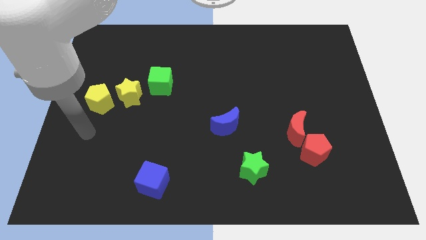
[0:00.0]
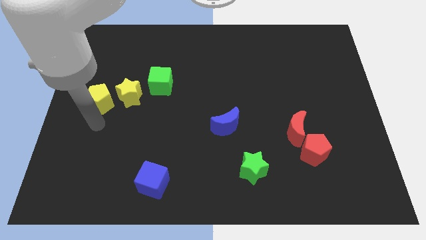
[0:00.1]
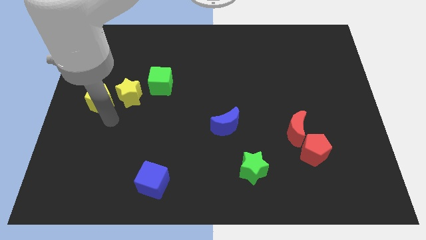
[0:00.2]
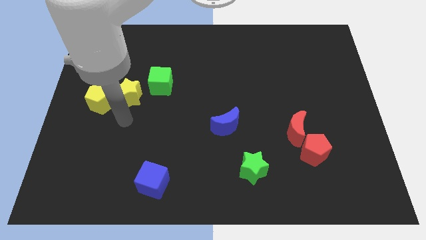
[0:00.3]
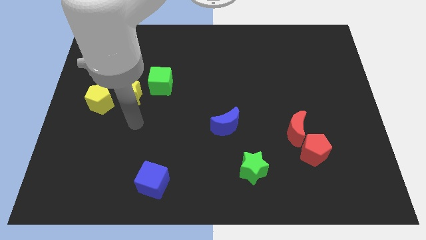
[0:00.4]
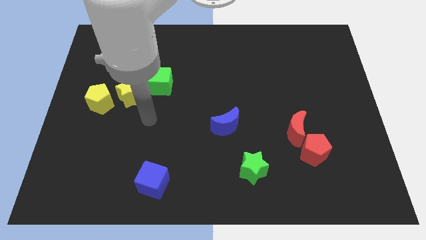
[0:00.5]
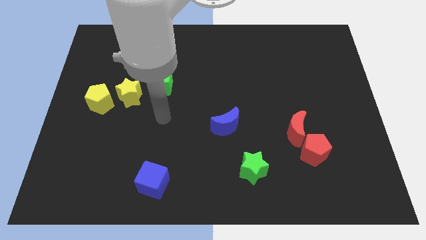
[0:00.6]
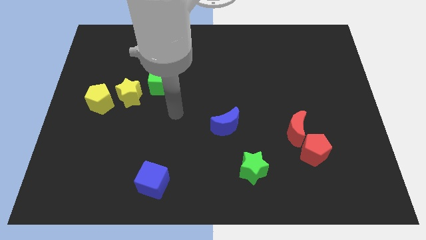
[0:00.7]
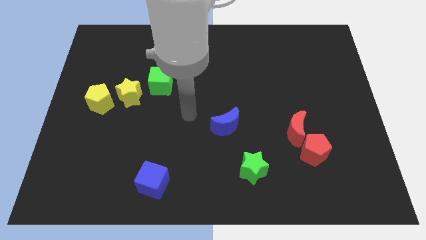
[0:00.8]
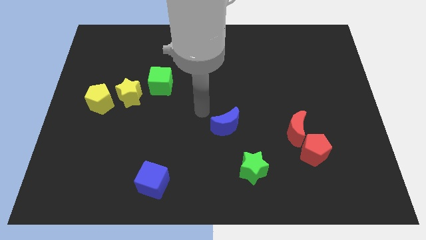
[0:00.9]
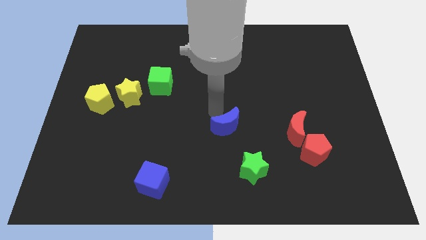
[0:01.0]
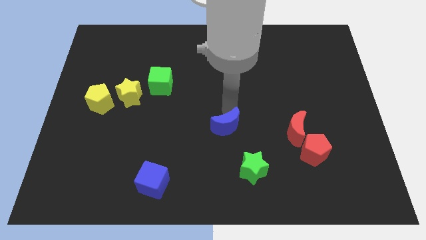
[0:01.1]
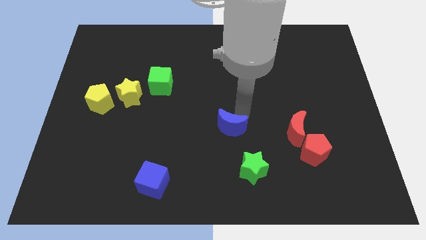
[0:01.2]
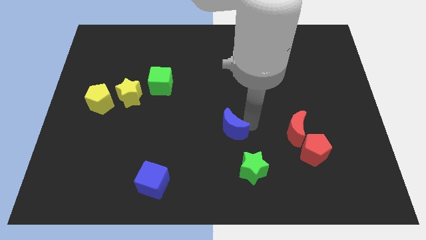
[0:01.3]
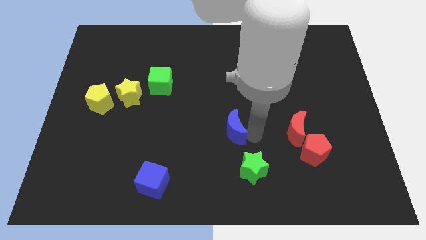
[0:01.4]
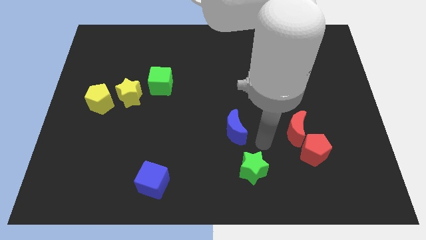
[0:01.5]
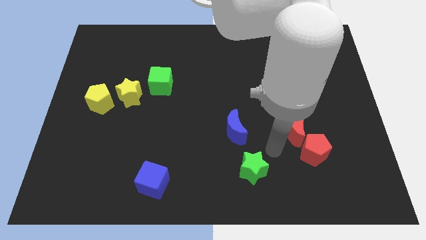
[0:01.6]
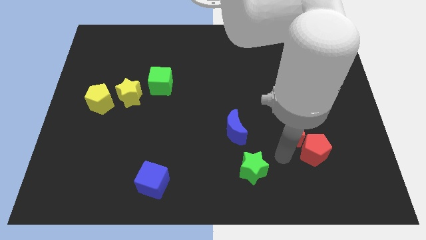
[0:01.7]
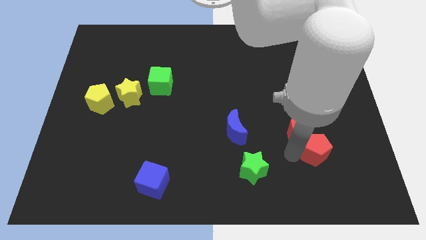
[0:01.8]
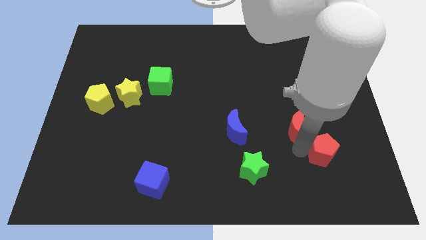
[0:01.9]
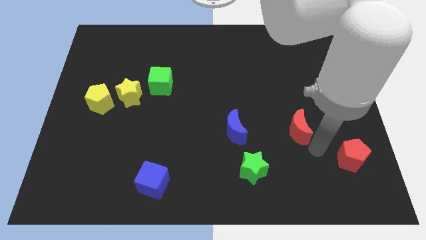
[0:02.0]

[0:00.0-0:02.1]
move the red moon away from the red pentagon

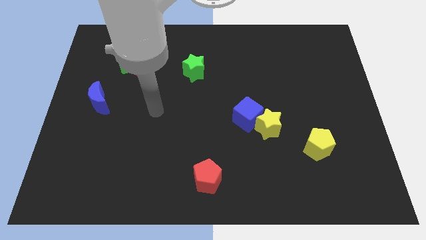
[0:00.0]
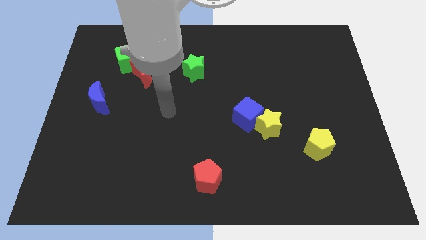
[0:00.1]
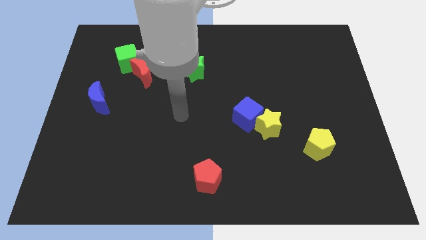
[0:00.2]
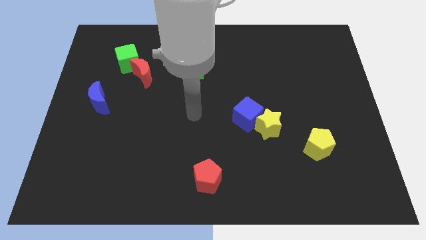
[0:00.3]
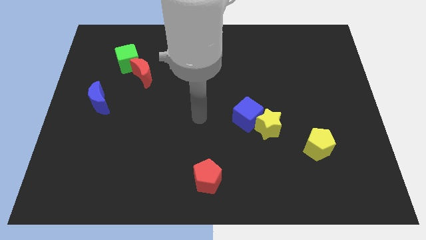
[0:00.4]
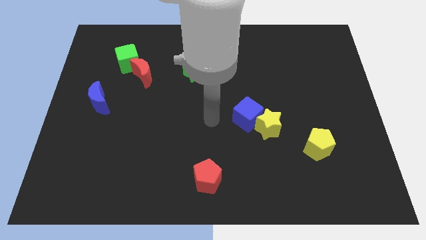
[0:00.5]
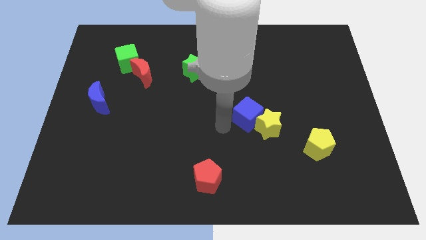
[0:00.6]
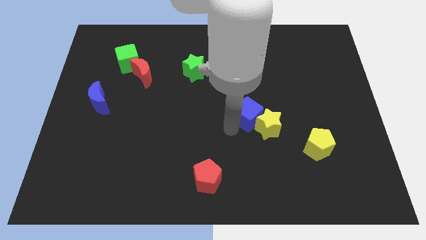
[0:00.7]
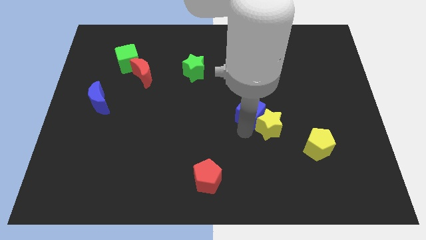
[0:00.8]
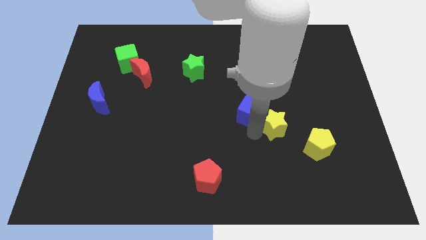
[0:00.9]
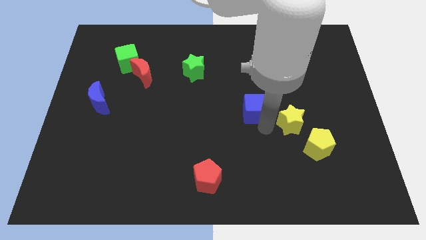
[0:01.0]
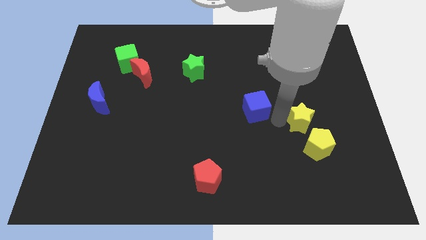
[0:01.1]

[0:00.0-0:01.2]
separate the blue cube from the yellow star

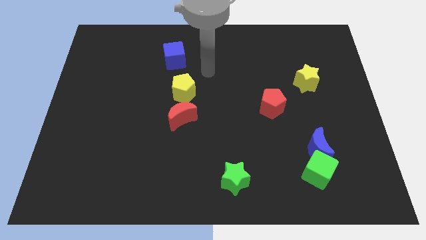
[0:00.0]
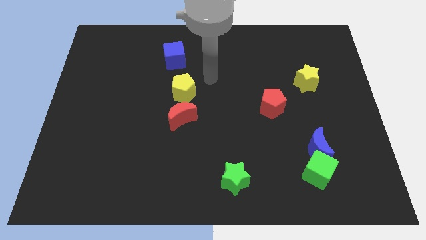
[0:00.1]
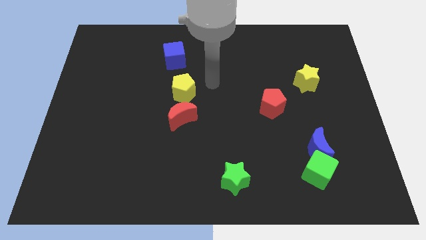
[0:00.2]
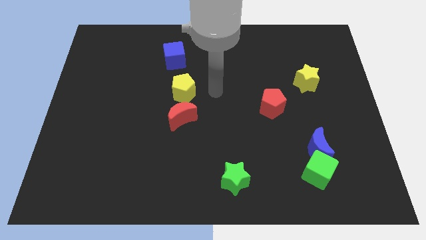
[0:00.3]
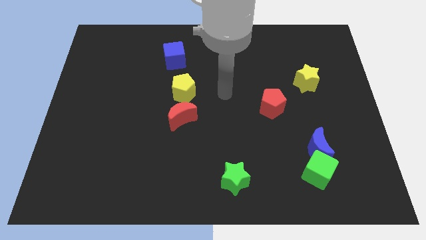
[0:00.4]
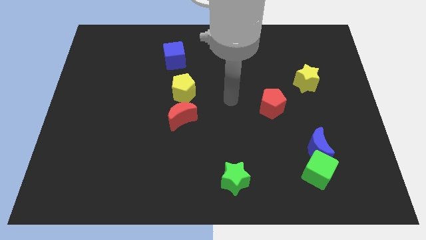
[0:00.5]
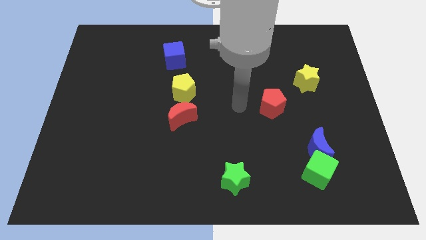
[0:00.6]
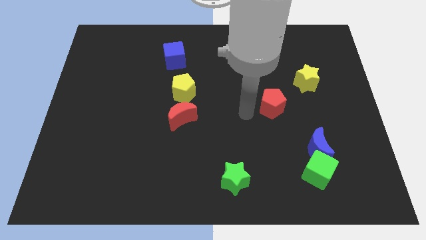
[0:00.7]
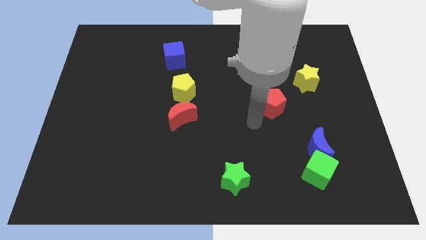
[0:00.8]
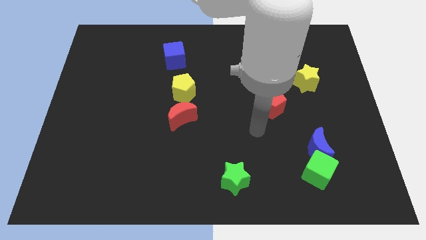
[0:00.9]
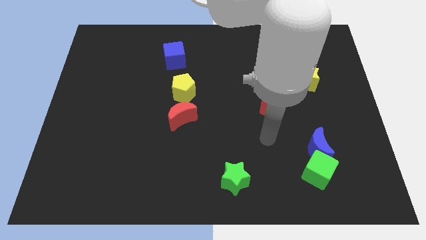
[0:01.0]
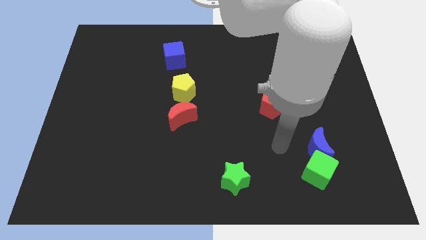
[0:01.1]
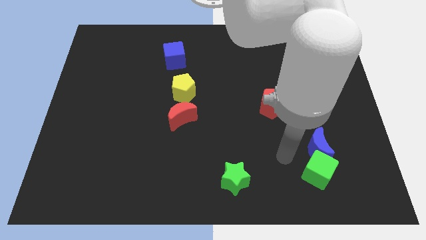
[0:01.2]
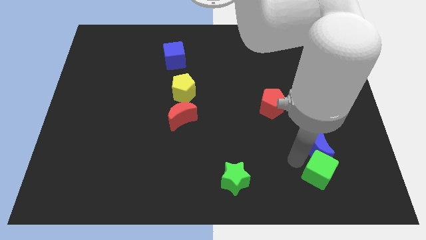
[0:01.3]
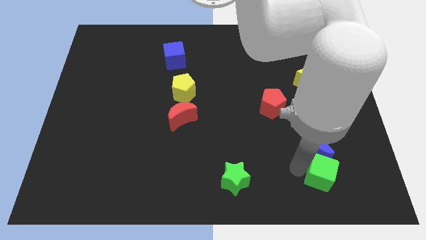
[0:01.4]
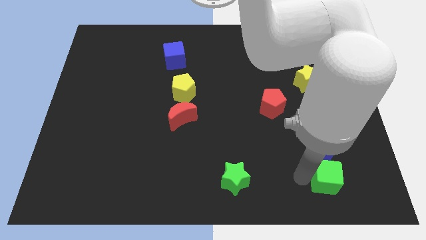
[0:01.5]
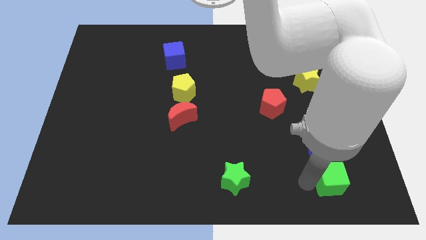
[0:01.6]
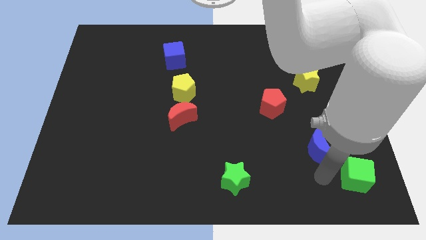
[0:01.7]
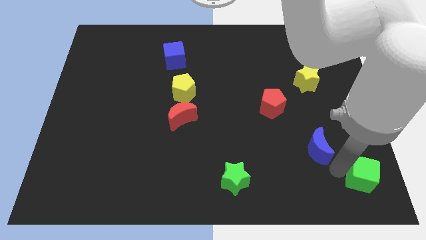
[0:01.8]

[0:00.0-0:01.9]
pull the blue moon apart from the green cube

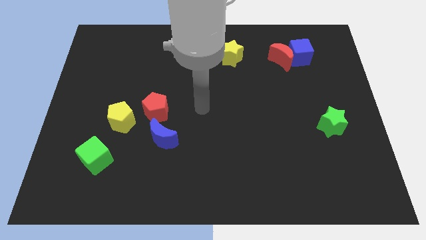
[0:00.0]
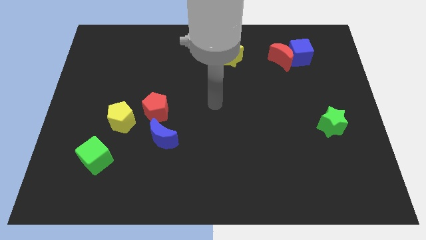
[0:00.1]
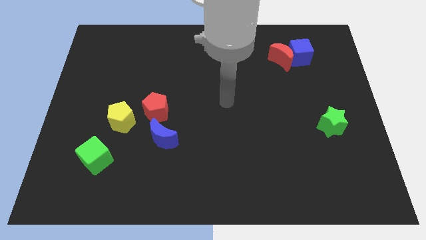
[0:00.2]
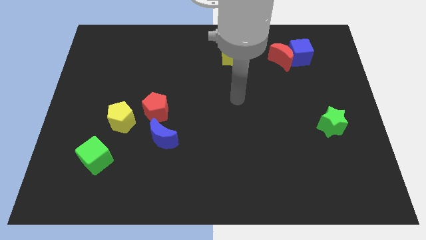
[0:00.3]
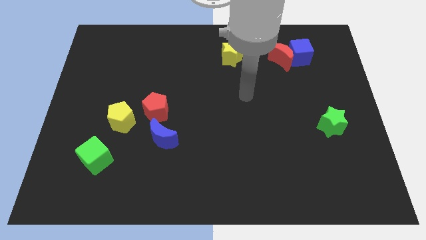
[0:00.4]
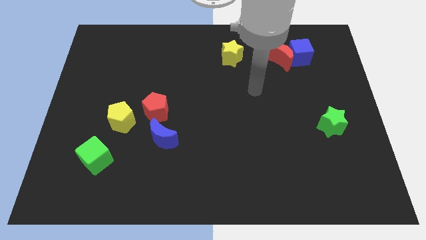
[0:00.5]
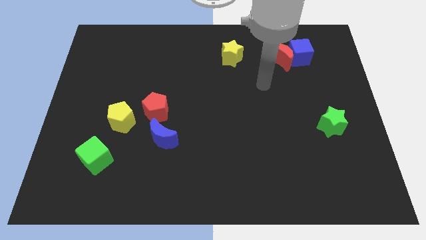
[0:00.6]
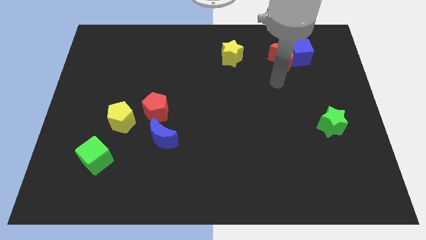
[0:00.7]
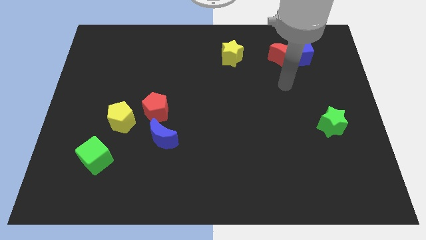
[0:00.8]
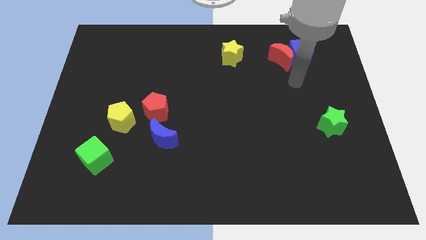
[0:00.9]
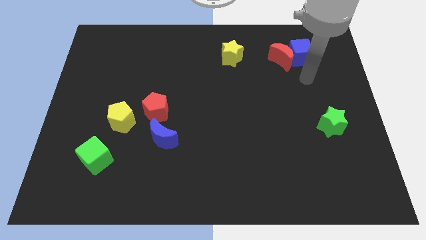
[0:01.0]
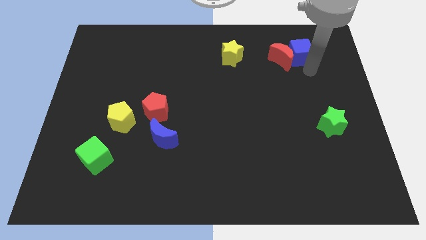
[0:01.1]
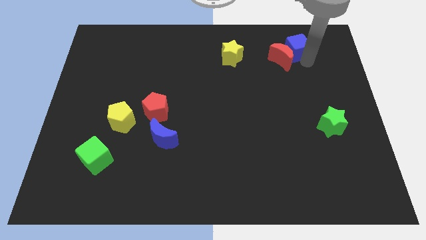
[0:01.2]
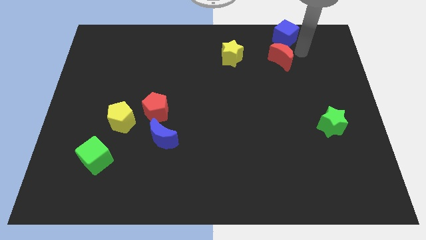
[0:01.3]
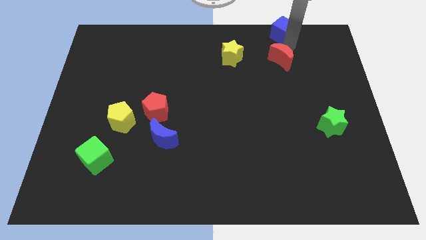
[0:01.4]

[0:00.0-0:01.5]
separate the red moon from the blue cube

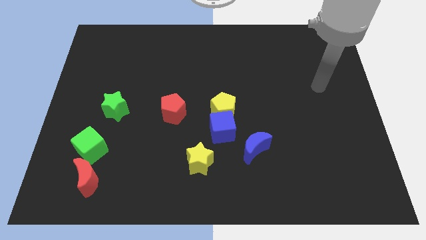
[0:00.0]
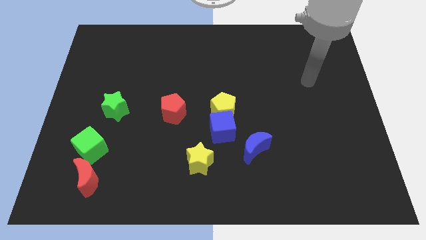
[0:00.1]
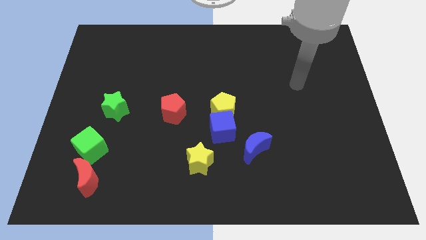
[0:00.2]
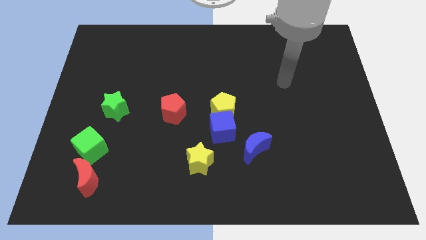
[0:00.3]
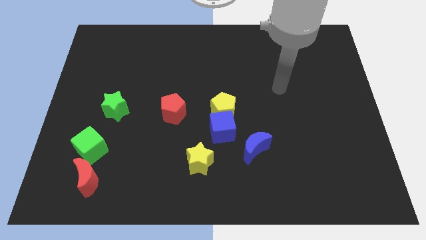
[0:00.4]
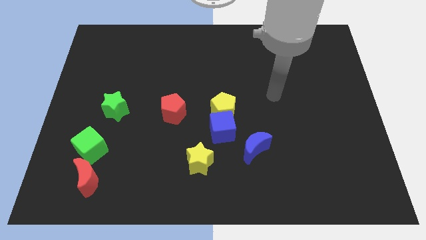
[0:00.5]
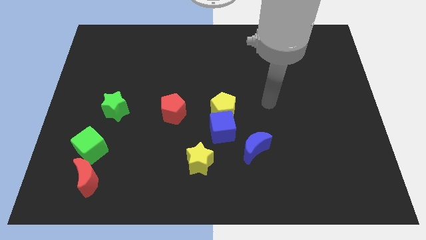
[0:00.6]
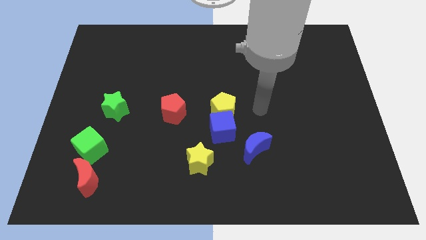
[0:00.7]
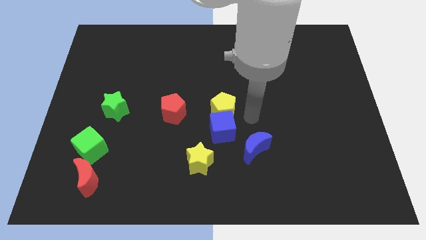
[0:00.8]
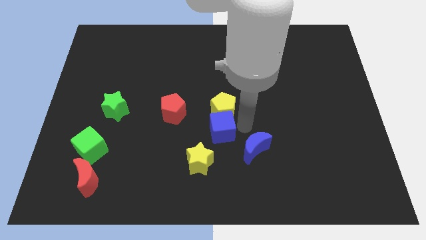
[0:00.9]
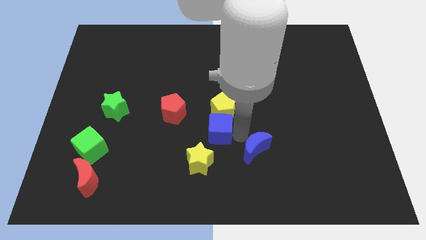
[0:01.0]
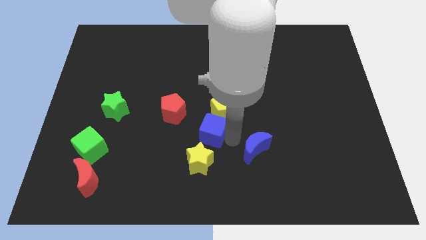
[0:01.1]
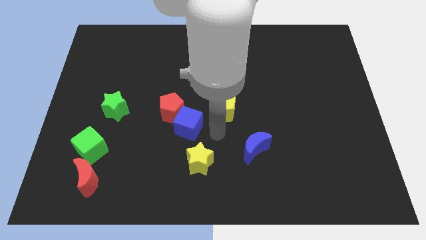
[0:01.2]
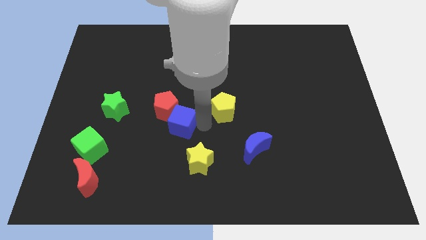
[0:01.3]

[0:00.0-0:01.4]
move the yellow pentagon away from the blue cube

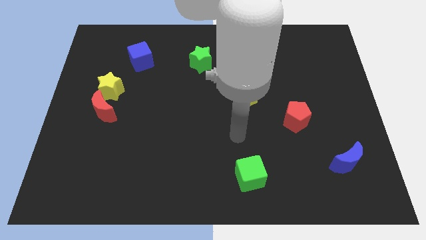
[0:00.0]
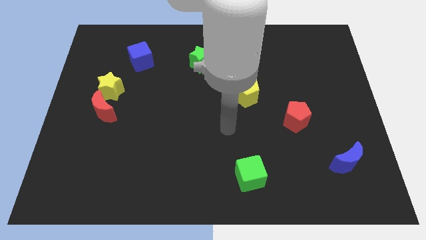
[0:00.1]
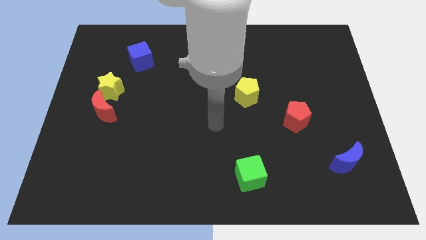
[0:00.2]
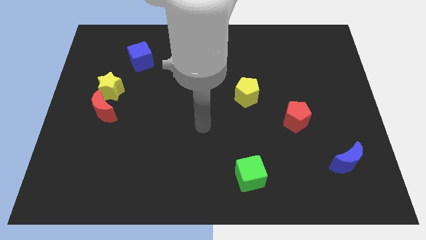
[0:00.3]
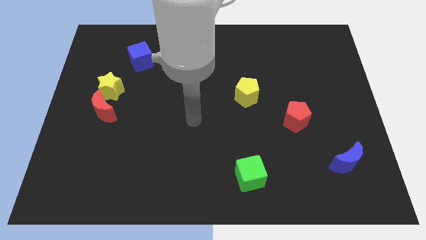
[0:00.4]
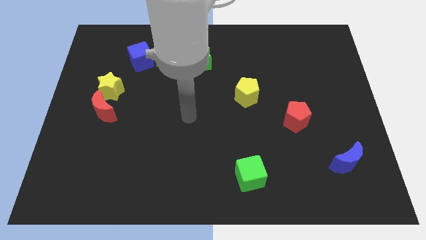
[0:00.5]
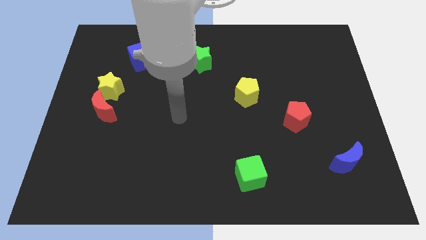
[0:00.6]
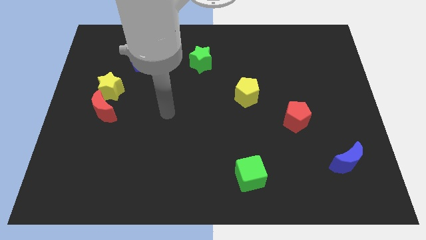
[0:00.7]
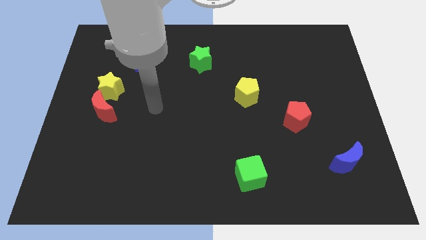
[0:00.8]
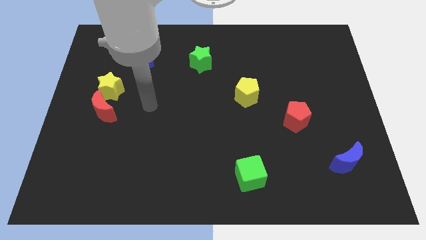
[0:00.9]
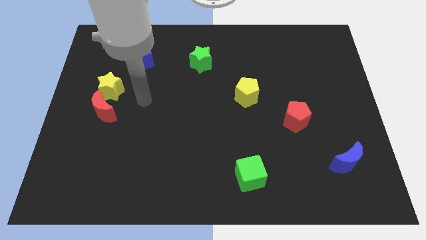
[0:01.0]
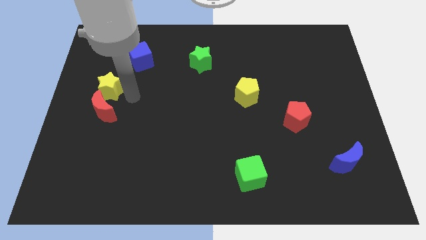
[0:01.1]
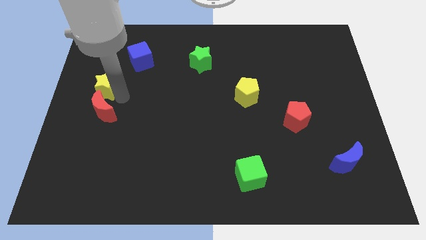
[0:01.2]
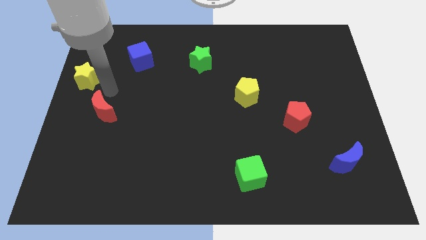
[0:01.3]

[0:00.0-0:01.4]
pull the red moon apart from the yellow star
